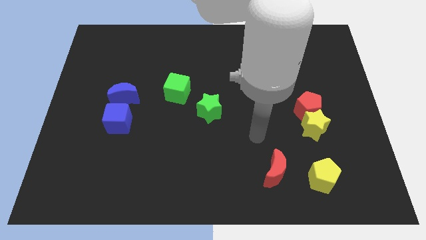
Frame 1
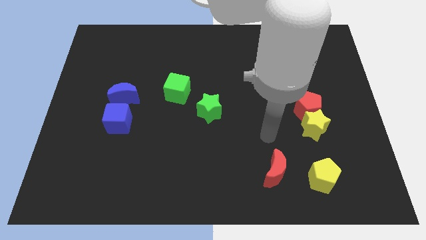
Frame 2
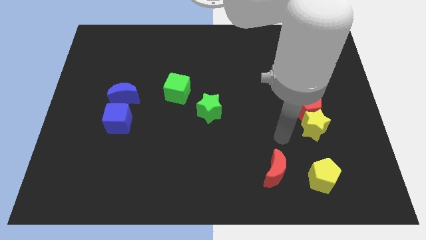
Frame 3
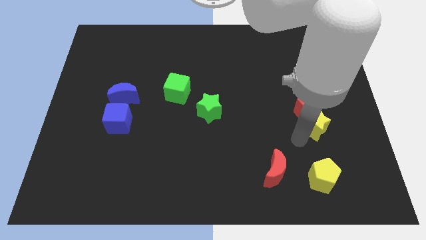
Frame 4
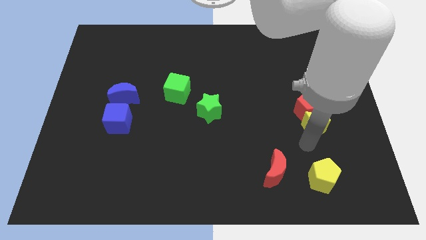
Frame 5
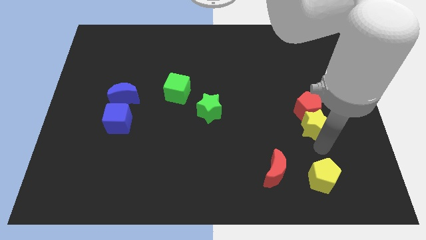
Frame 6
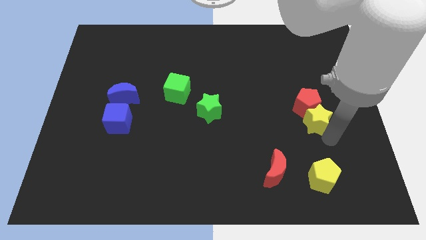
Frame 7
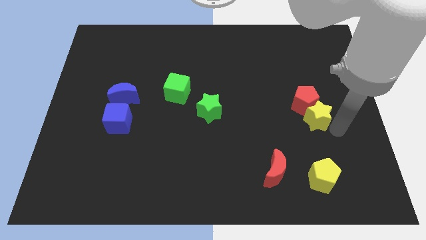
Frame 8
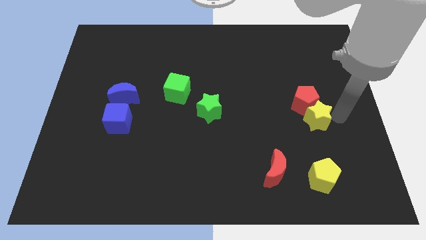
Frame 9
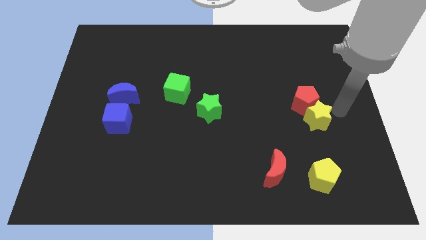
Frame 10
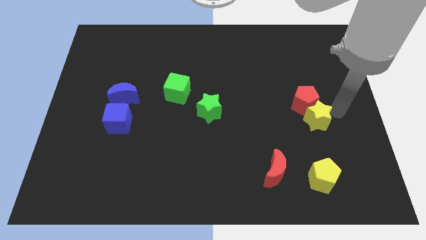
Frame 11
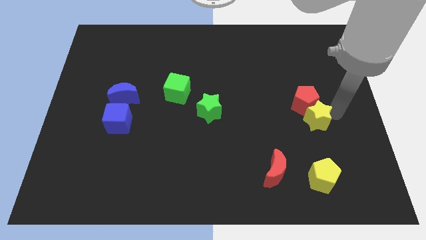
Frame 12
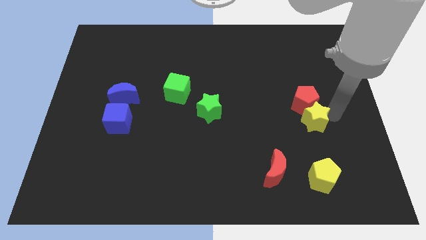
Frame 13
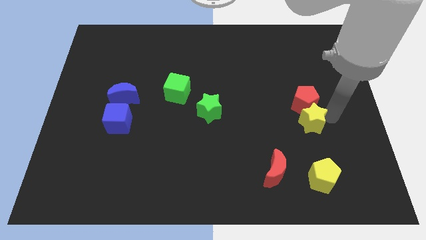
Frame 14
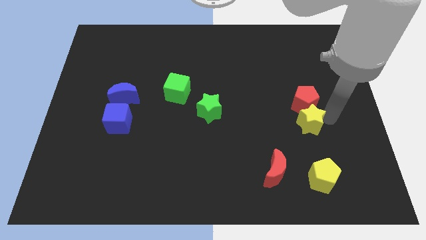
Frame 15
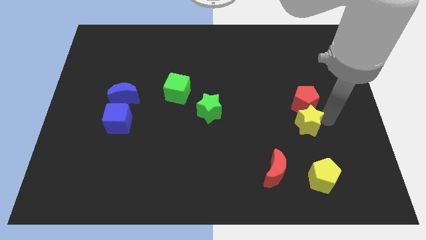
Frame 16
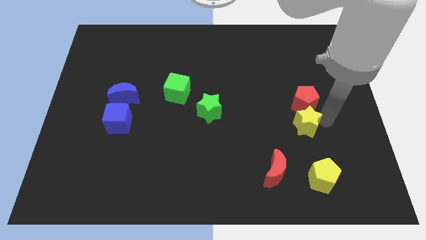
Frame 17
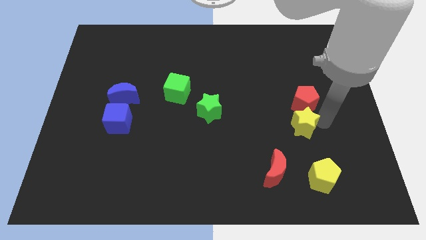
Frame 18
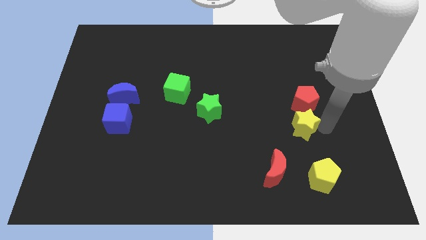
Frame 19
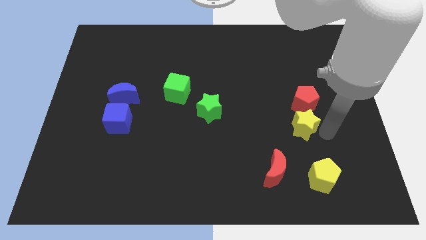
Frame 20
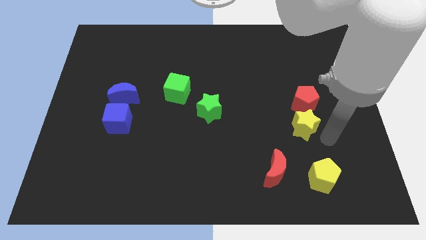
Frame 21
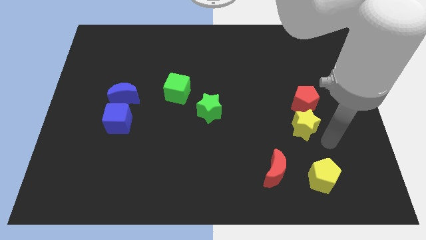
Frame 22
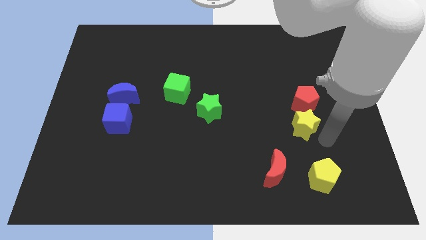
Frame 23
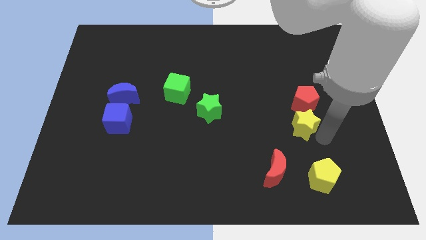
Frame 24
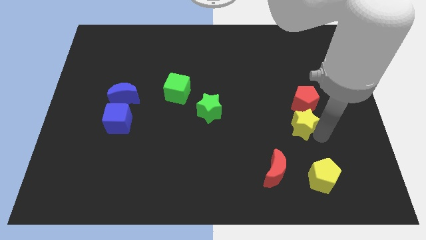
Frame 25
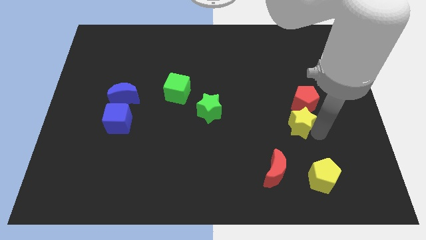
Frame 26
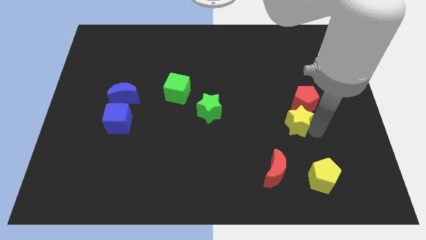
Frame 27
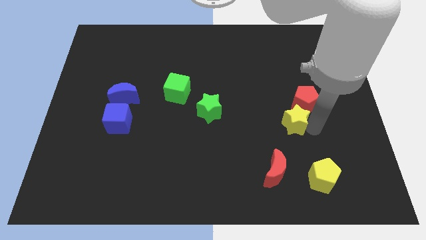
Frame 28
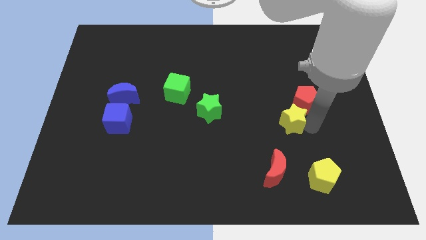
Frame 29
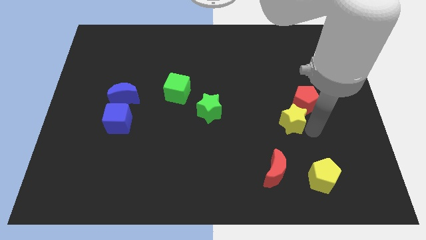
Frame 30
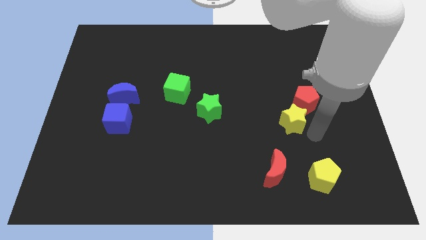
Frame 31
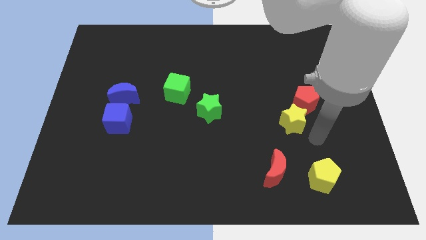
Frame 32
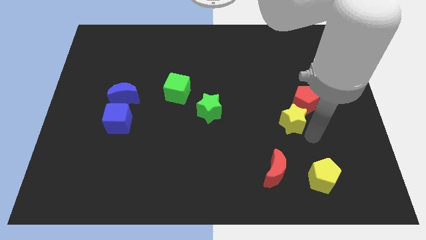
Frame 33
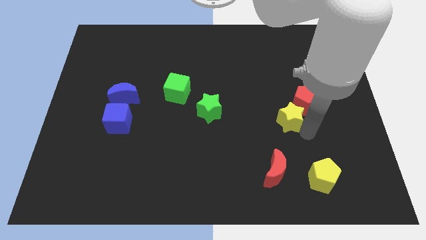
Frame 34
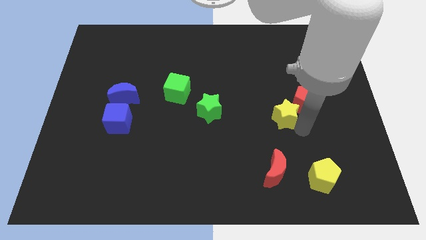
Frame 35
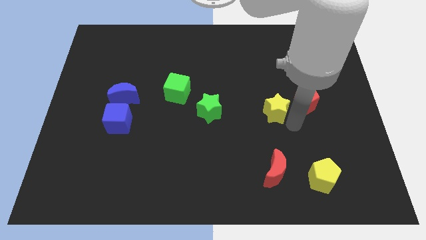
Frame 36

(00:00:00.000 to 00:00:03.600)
move the yellow star up and left somewhat

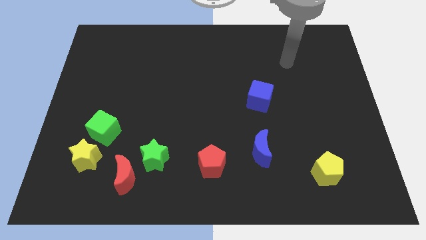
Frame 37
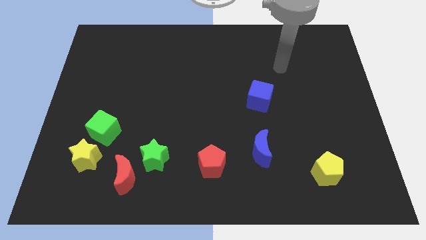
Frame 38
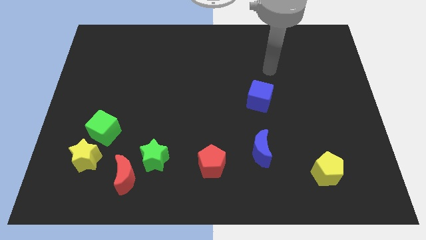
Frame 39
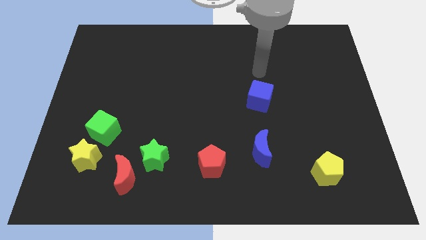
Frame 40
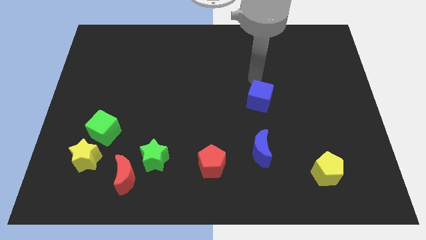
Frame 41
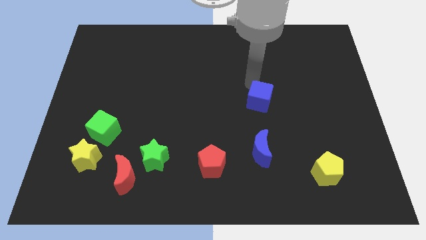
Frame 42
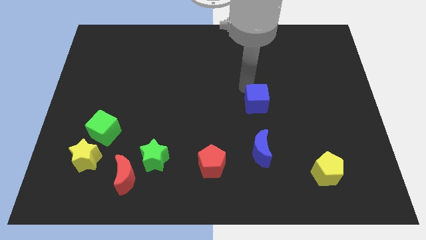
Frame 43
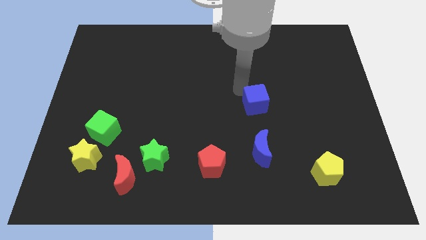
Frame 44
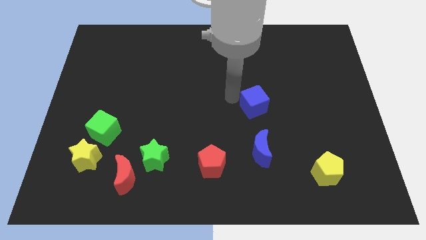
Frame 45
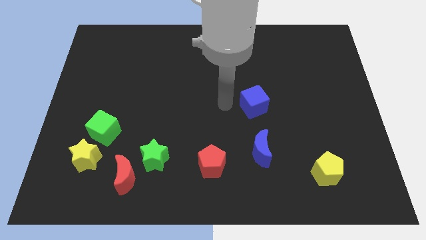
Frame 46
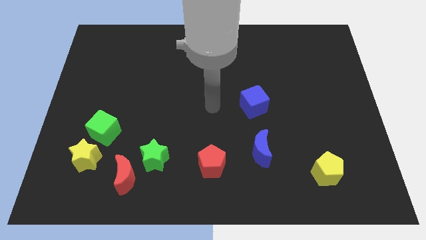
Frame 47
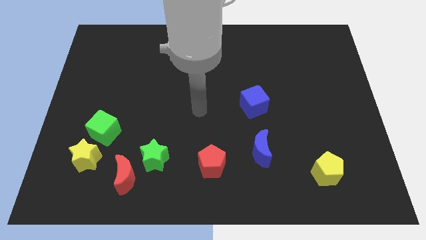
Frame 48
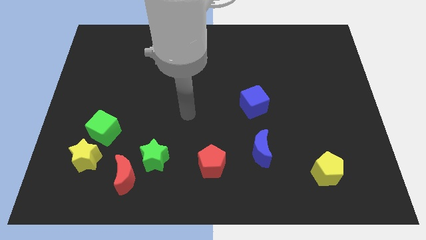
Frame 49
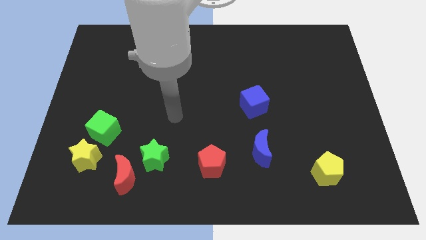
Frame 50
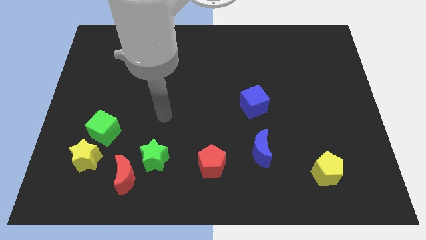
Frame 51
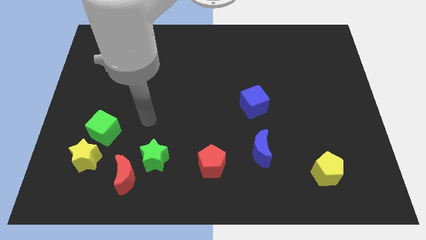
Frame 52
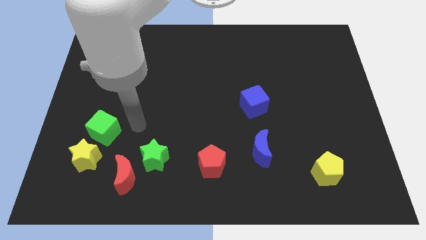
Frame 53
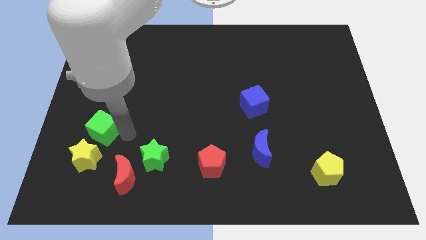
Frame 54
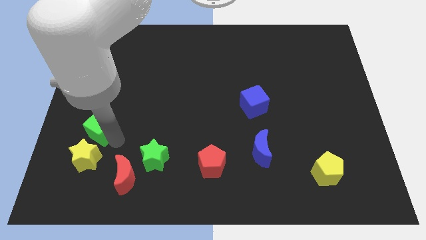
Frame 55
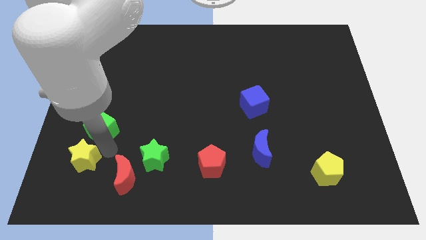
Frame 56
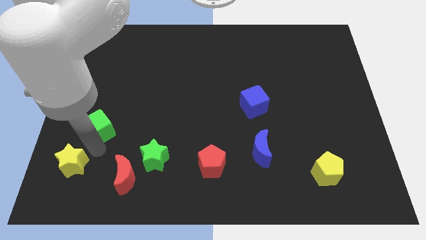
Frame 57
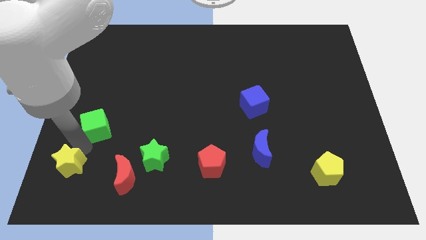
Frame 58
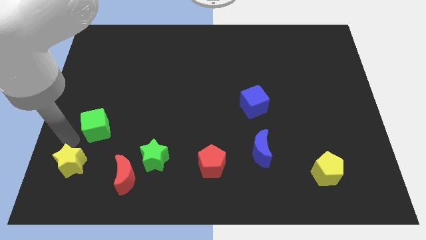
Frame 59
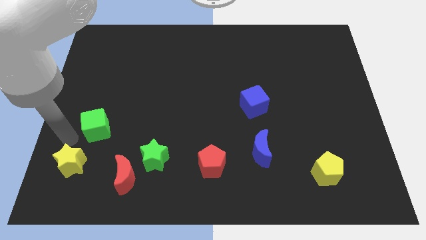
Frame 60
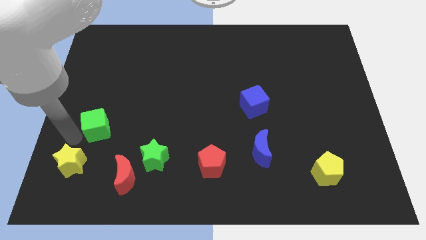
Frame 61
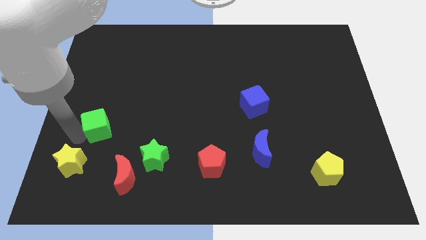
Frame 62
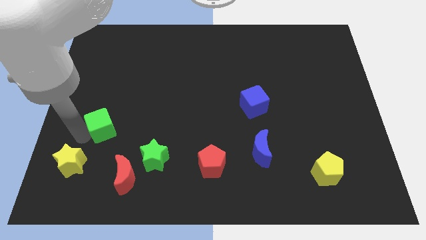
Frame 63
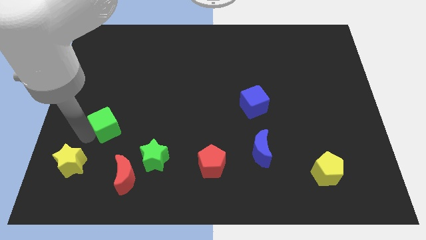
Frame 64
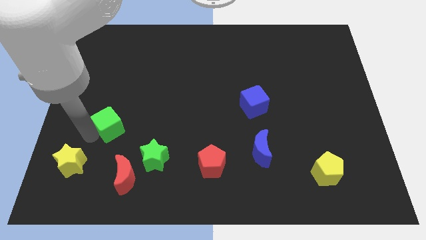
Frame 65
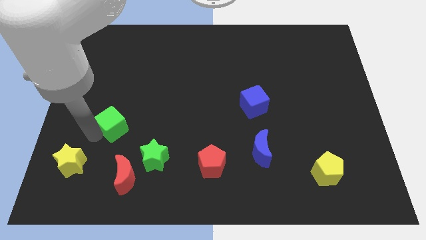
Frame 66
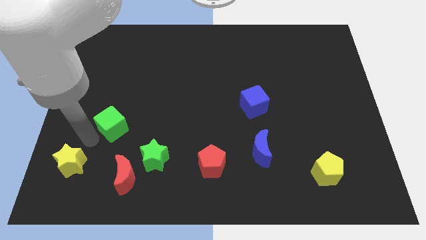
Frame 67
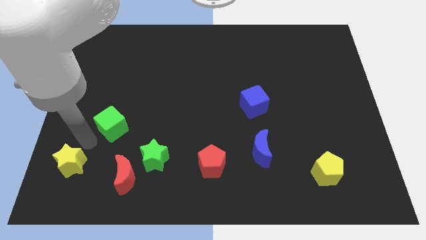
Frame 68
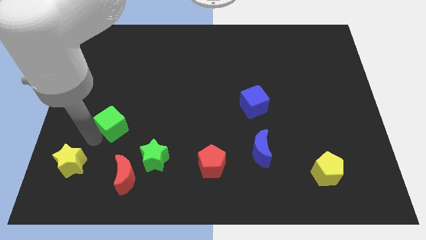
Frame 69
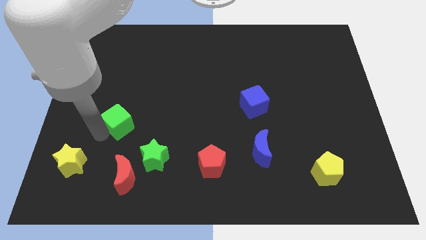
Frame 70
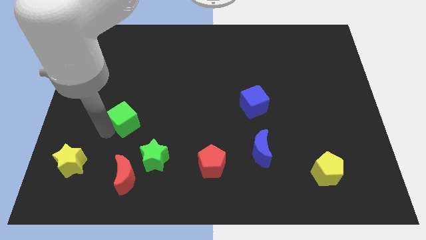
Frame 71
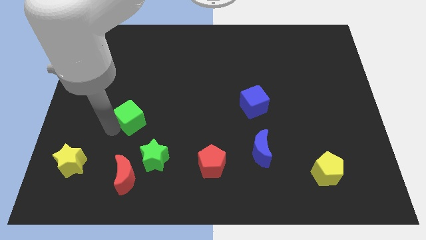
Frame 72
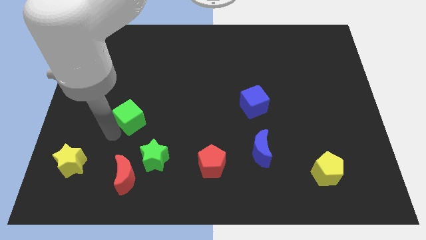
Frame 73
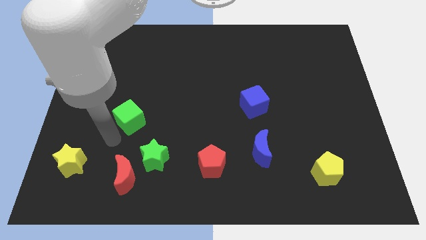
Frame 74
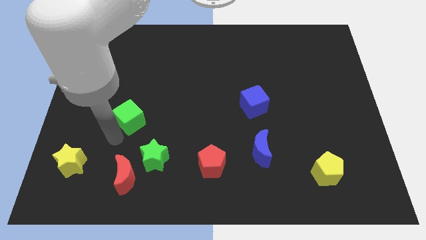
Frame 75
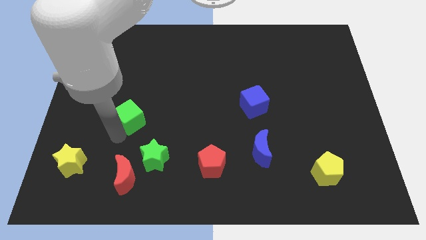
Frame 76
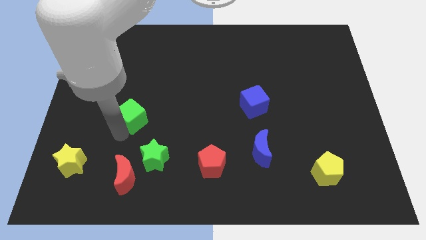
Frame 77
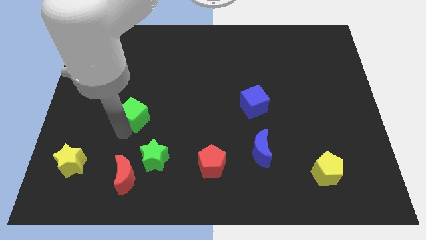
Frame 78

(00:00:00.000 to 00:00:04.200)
slide the green cube diagonally up and to the right somewhat

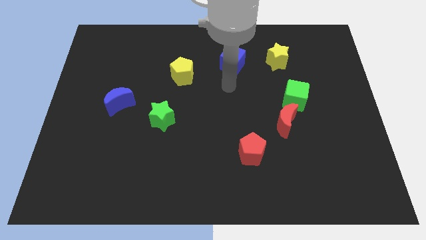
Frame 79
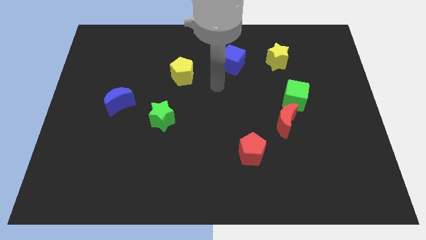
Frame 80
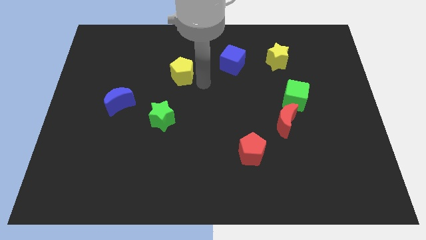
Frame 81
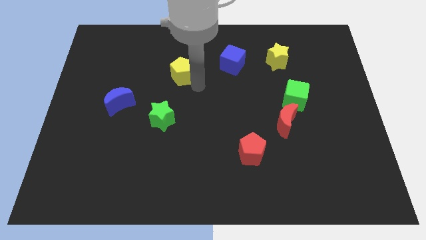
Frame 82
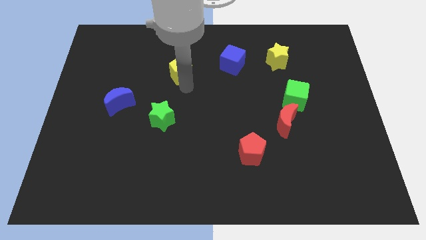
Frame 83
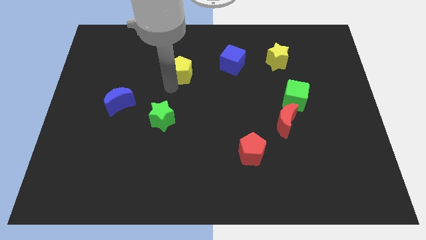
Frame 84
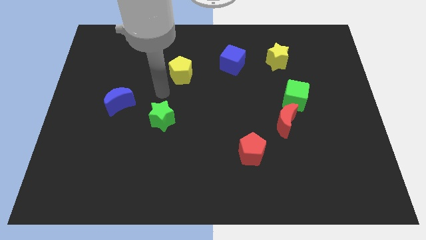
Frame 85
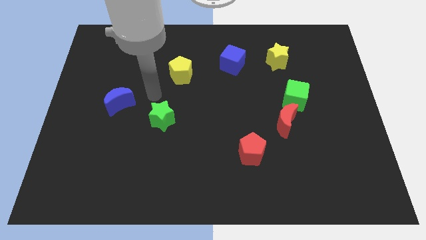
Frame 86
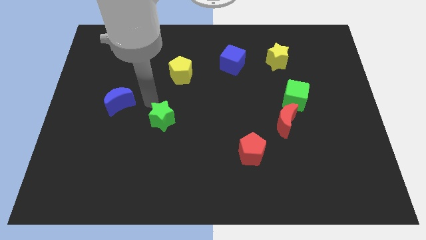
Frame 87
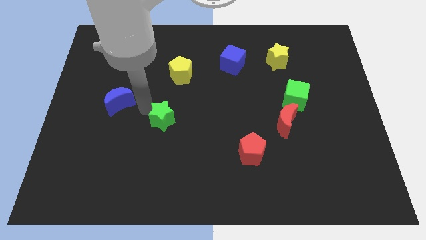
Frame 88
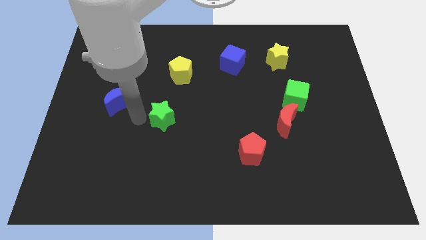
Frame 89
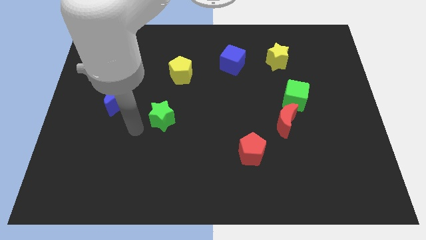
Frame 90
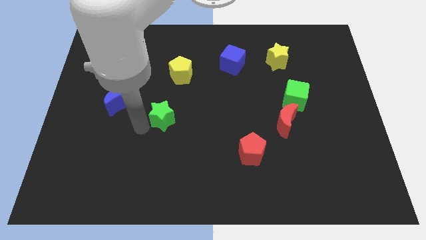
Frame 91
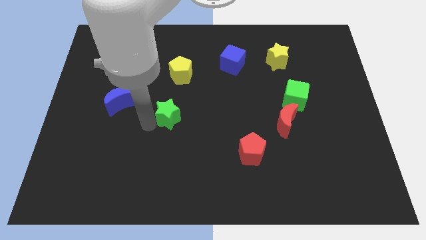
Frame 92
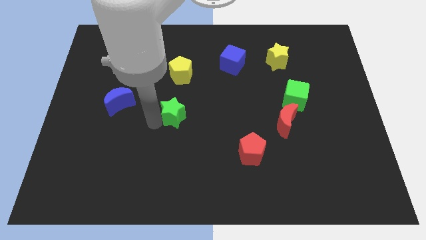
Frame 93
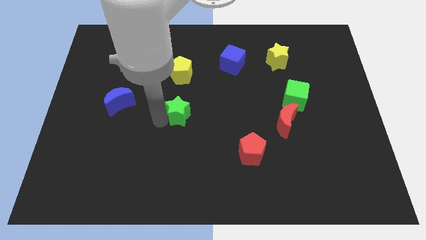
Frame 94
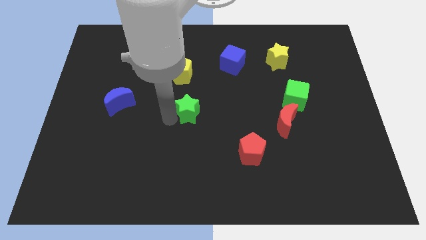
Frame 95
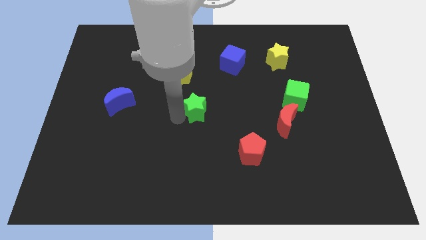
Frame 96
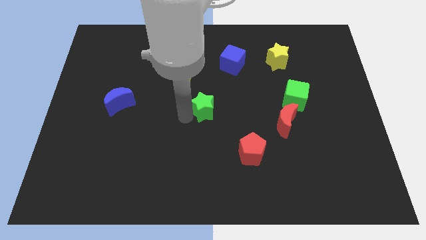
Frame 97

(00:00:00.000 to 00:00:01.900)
push the green star somewhat up and right diagonally
